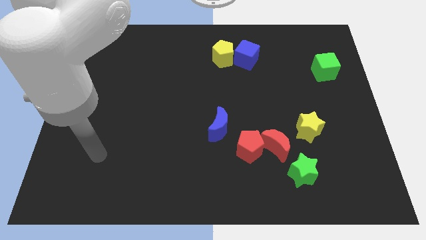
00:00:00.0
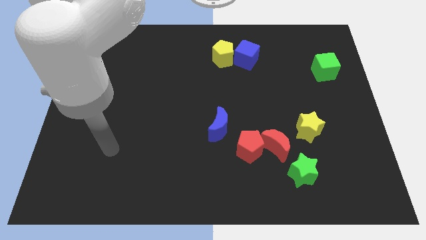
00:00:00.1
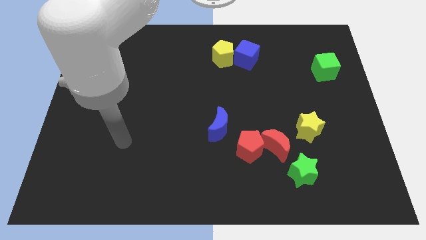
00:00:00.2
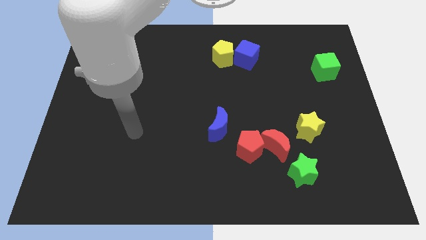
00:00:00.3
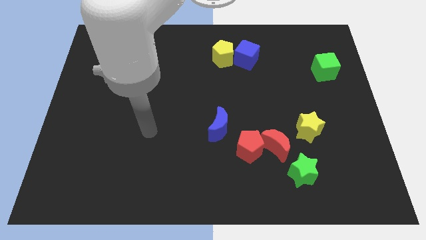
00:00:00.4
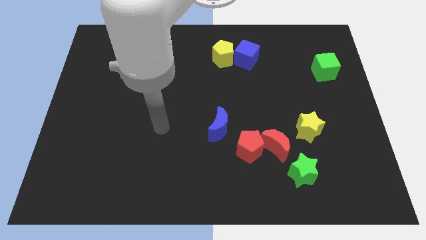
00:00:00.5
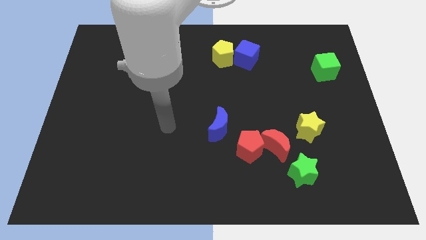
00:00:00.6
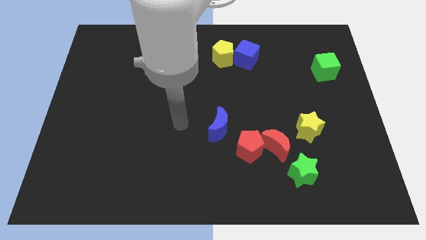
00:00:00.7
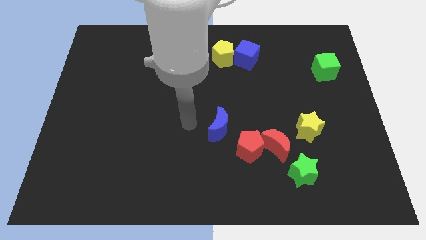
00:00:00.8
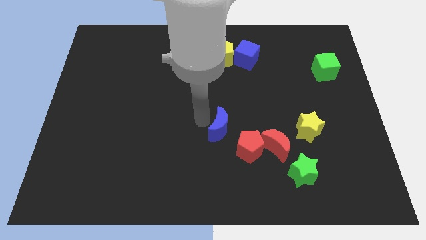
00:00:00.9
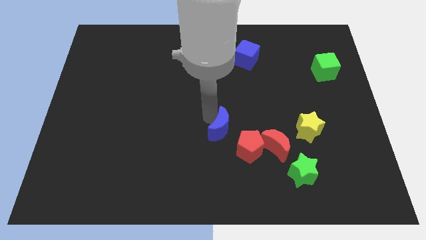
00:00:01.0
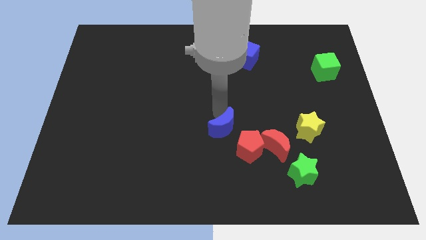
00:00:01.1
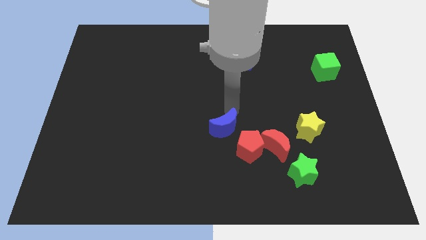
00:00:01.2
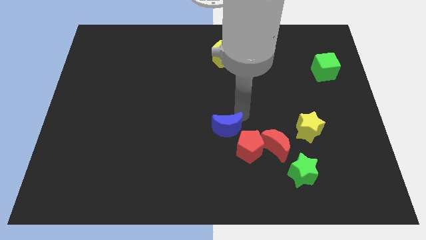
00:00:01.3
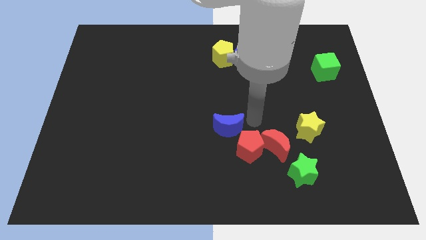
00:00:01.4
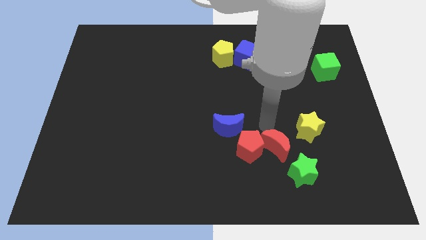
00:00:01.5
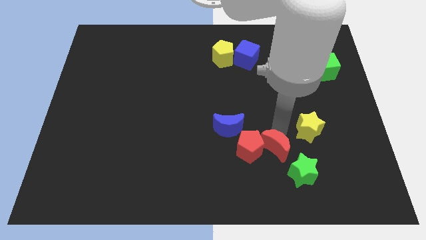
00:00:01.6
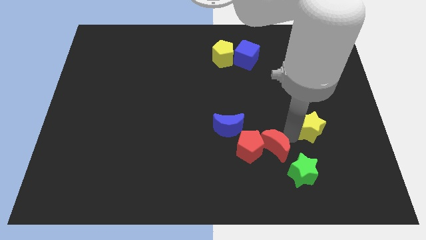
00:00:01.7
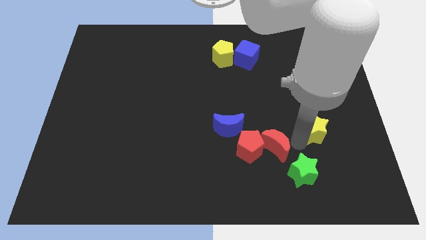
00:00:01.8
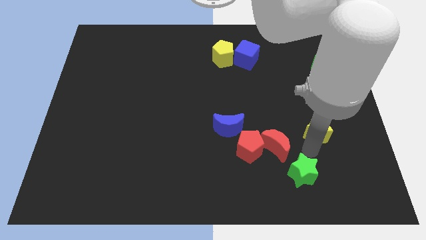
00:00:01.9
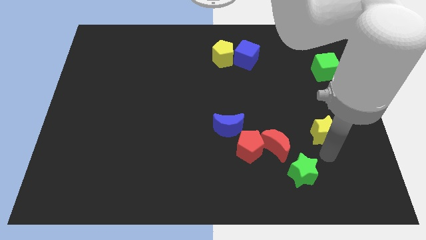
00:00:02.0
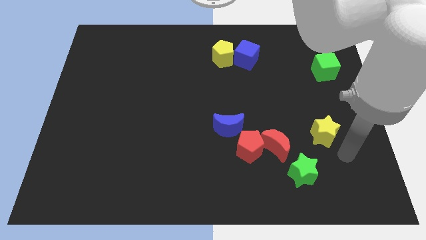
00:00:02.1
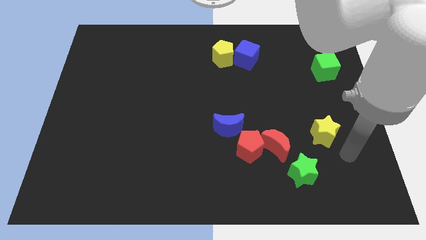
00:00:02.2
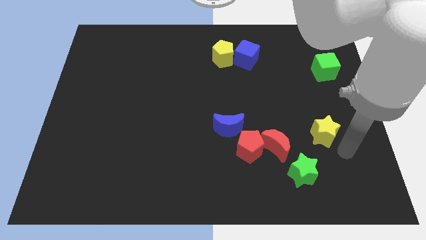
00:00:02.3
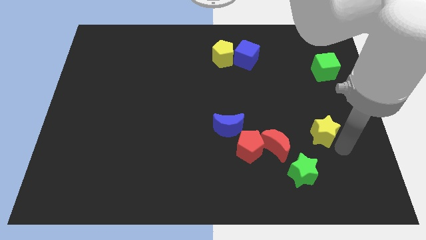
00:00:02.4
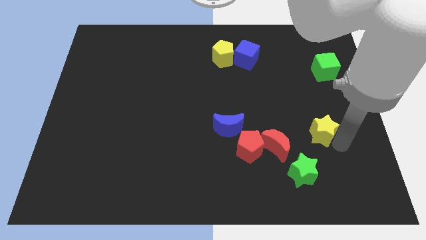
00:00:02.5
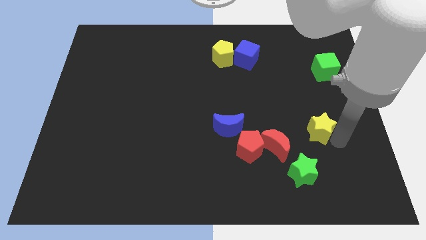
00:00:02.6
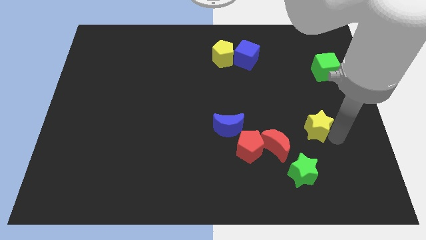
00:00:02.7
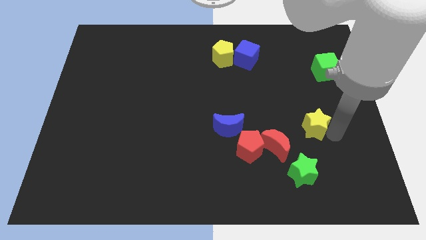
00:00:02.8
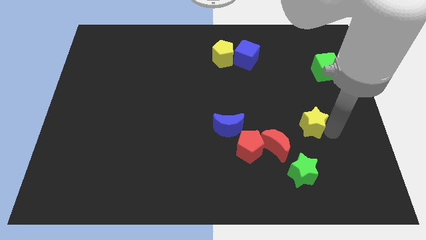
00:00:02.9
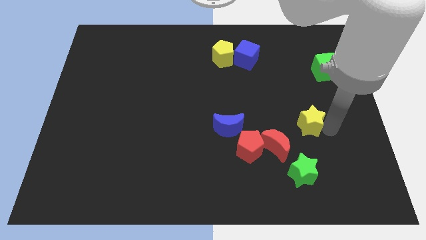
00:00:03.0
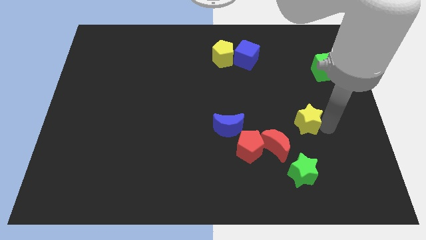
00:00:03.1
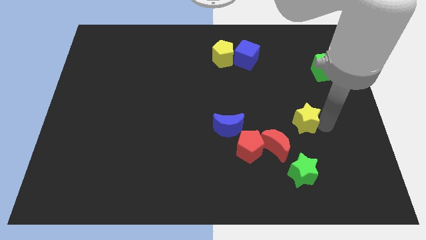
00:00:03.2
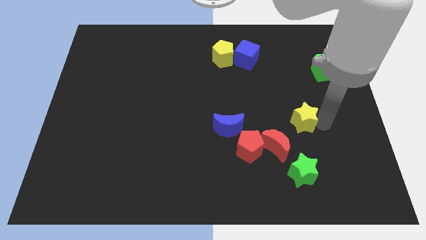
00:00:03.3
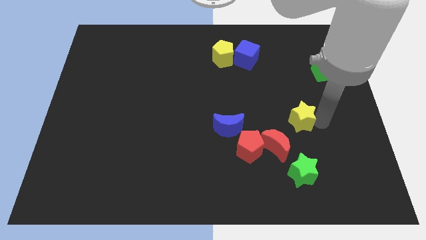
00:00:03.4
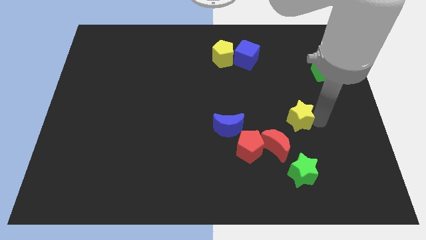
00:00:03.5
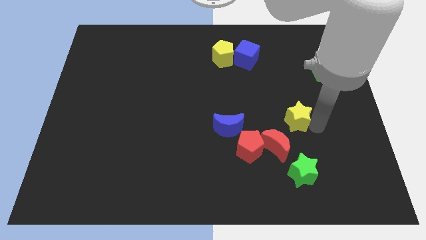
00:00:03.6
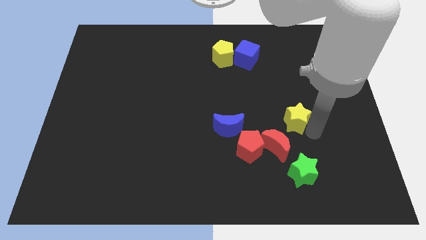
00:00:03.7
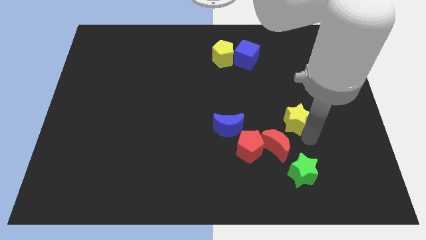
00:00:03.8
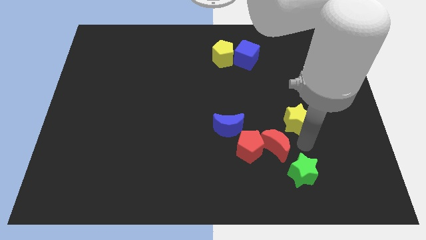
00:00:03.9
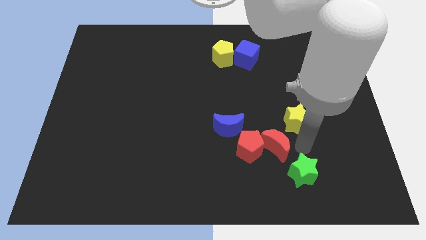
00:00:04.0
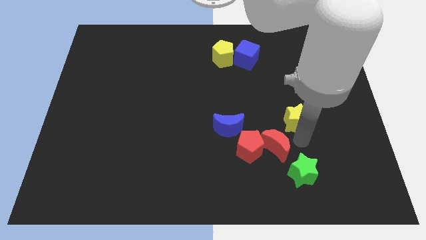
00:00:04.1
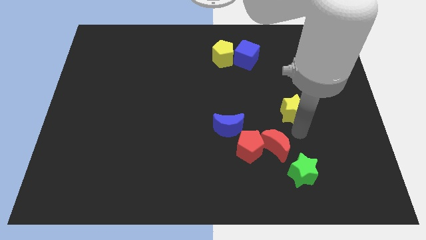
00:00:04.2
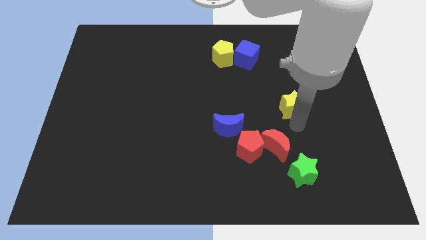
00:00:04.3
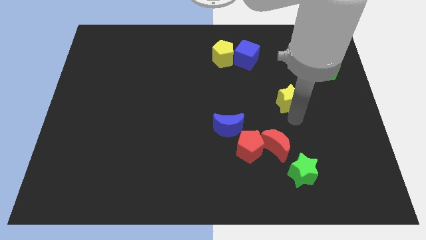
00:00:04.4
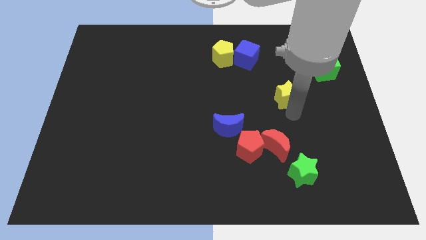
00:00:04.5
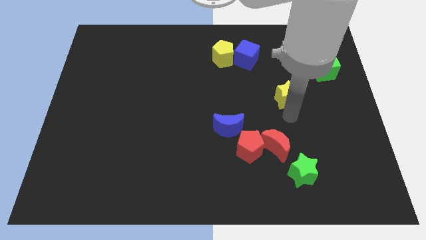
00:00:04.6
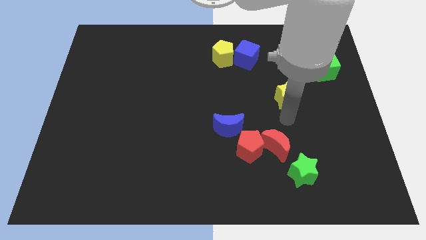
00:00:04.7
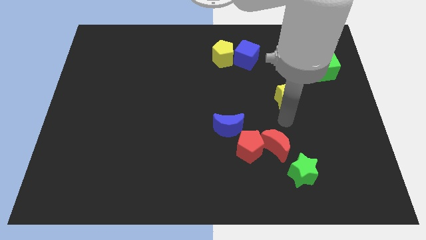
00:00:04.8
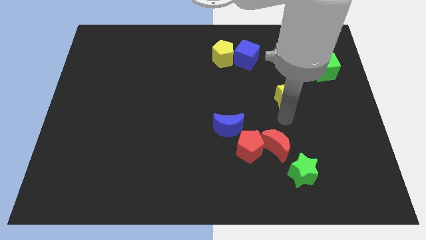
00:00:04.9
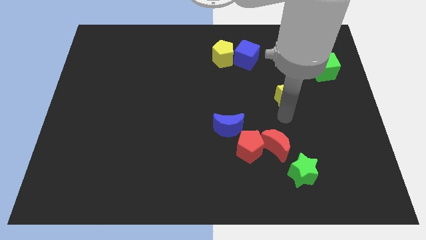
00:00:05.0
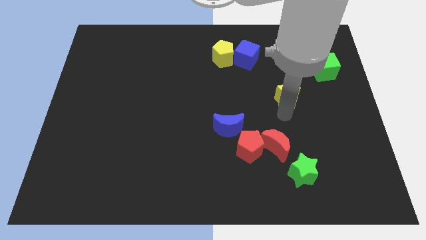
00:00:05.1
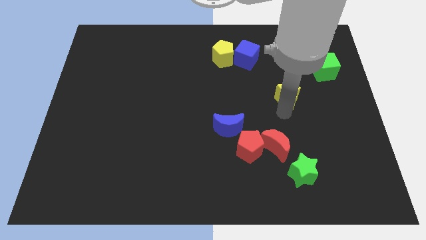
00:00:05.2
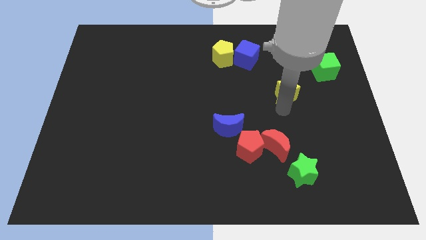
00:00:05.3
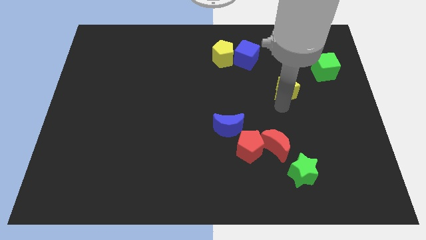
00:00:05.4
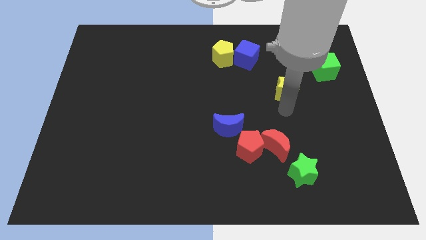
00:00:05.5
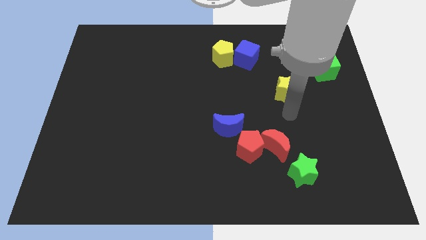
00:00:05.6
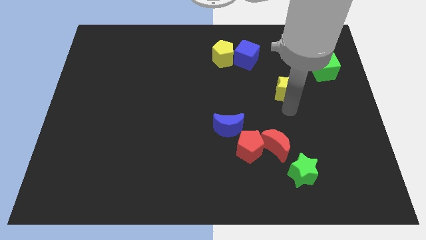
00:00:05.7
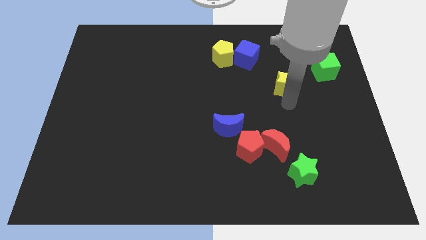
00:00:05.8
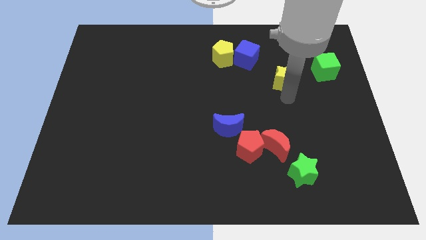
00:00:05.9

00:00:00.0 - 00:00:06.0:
put the yellow star to the left of the green cube
